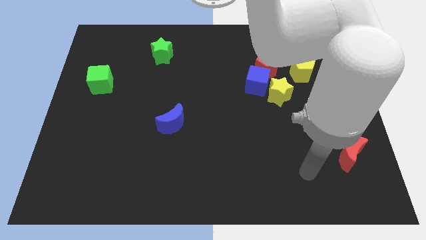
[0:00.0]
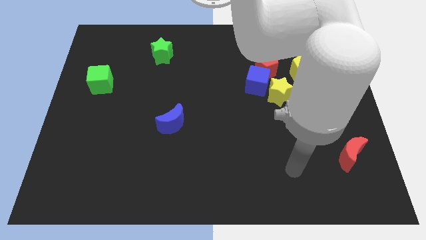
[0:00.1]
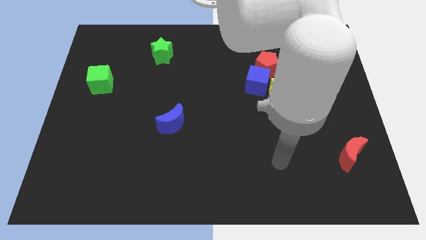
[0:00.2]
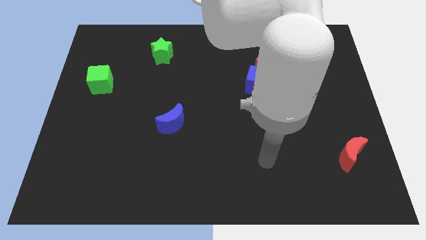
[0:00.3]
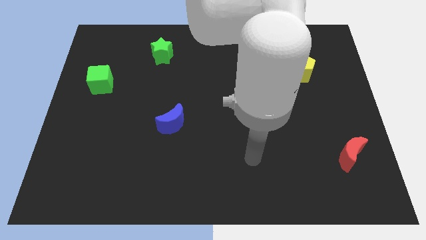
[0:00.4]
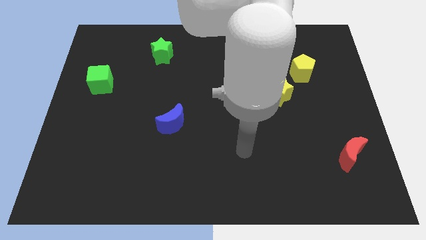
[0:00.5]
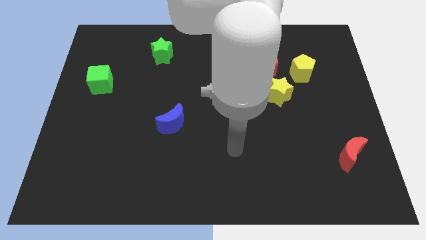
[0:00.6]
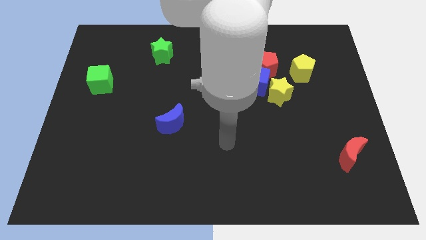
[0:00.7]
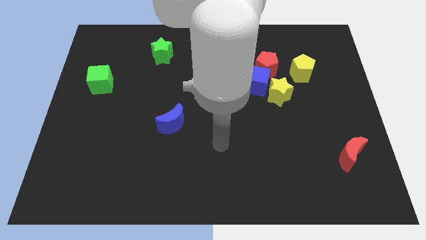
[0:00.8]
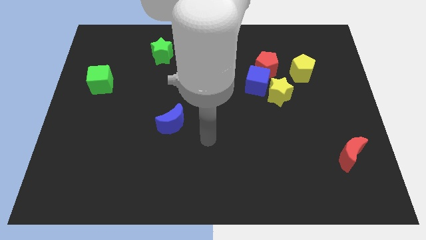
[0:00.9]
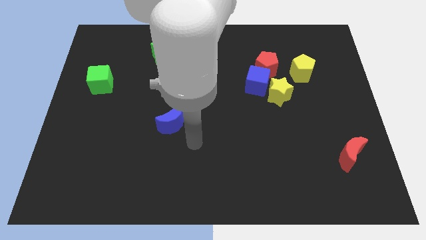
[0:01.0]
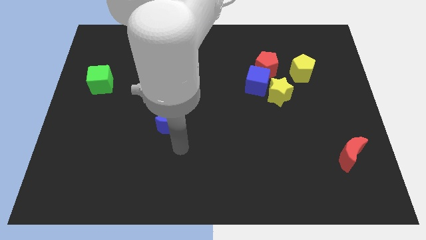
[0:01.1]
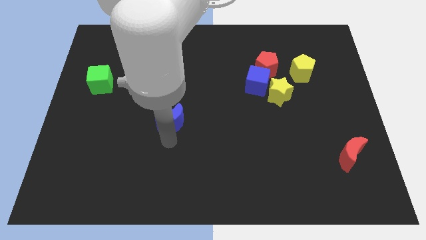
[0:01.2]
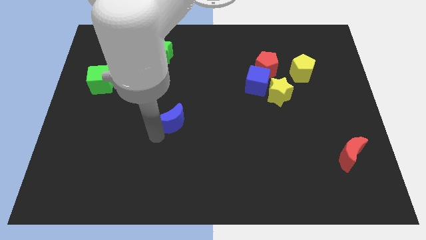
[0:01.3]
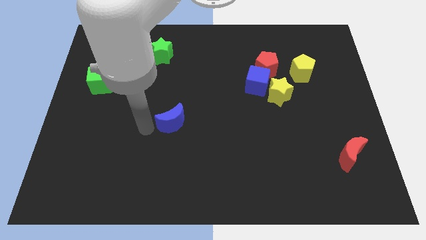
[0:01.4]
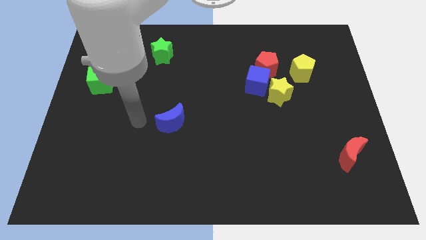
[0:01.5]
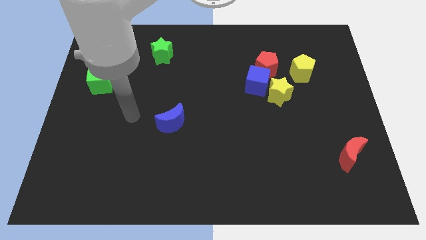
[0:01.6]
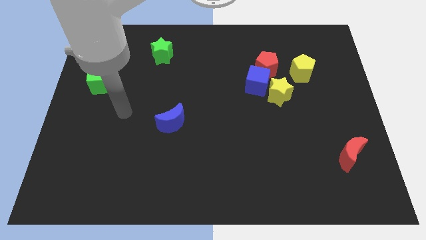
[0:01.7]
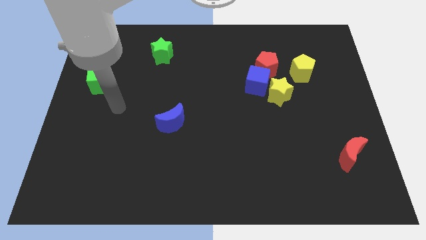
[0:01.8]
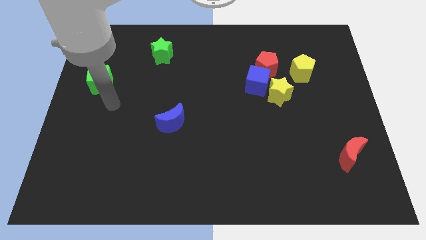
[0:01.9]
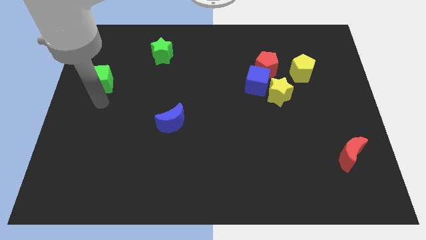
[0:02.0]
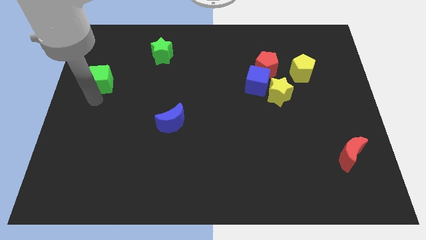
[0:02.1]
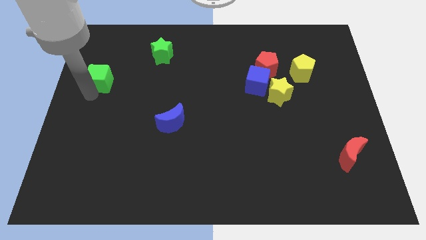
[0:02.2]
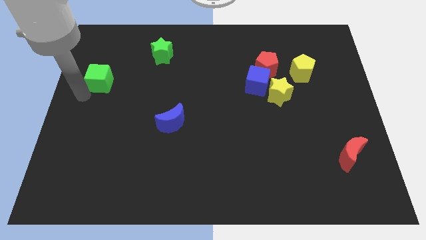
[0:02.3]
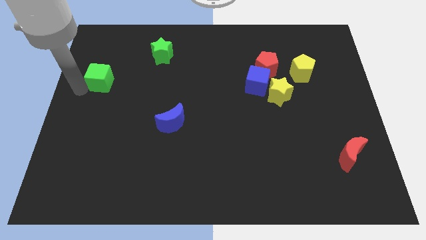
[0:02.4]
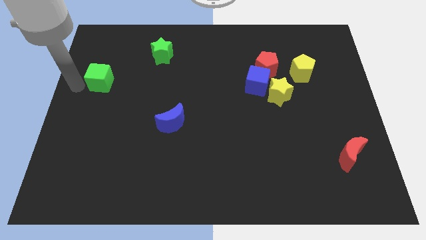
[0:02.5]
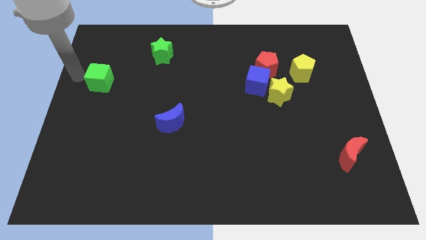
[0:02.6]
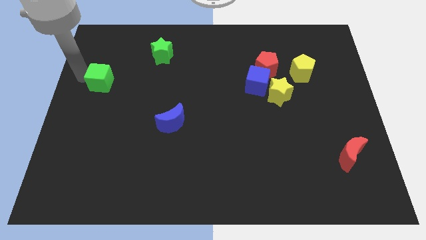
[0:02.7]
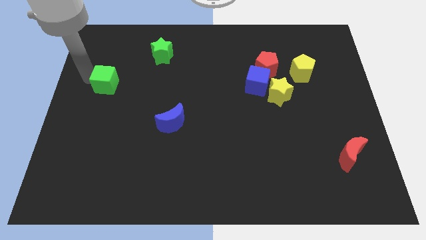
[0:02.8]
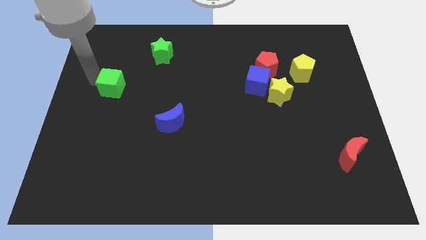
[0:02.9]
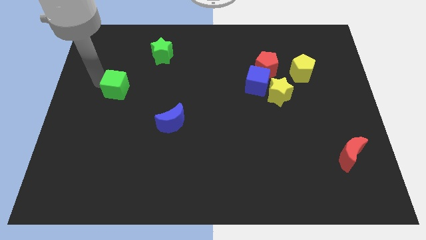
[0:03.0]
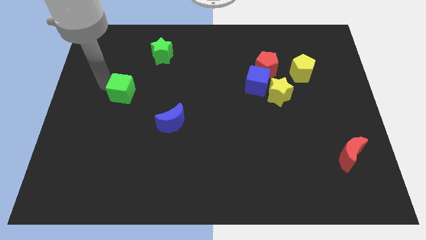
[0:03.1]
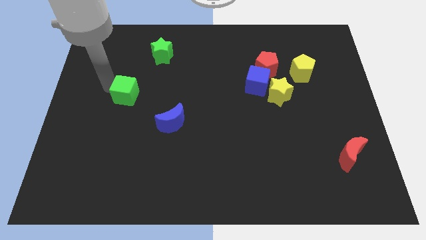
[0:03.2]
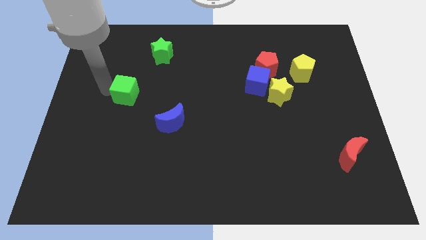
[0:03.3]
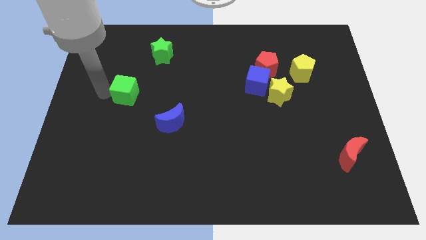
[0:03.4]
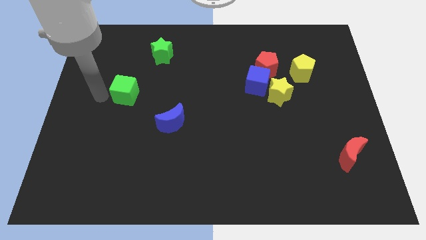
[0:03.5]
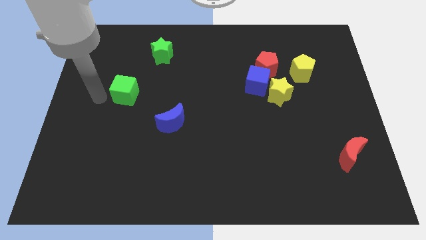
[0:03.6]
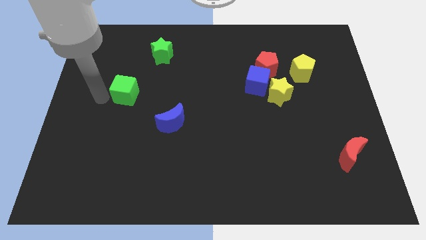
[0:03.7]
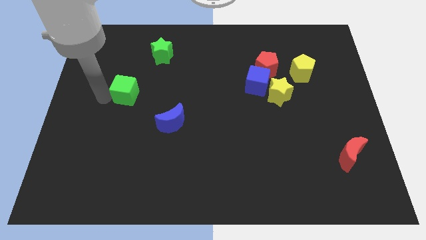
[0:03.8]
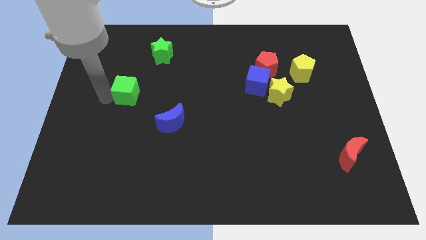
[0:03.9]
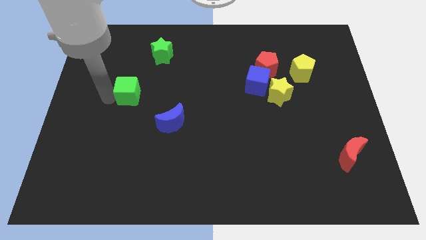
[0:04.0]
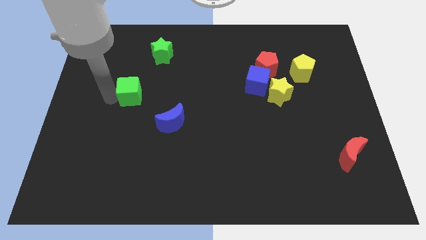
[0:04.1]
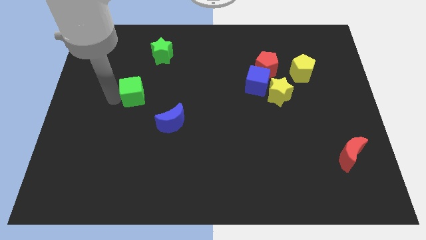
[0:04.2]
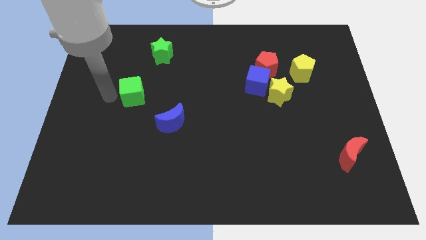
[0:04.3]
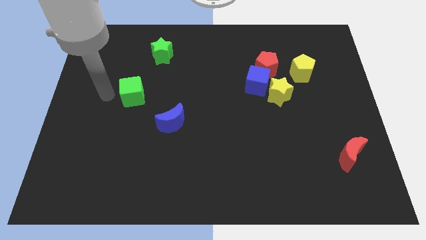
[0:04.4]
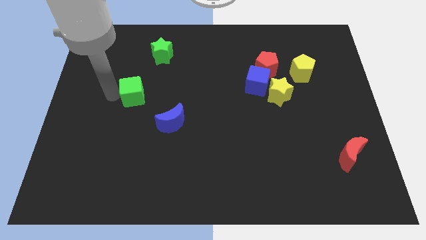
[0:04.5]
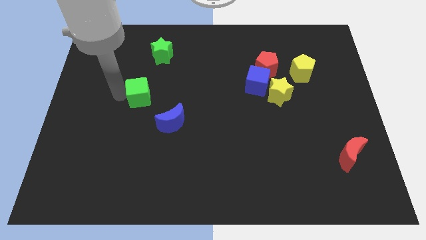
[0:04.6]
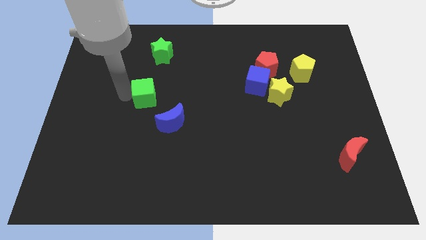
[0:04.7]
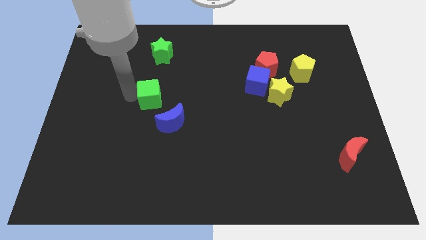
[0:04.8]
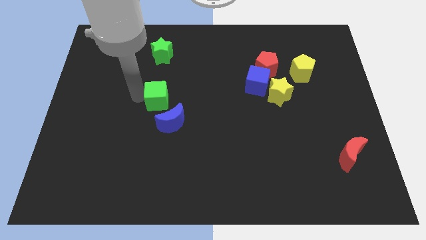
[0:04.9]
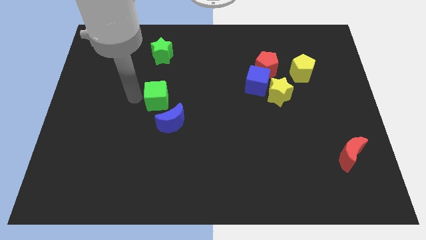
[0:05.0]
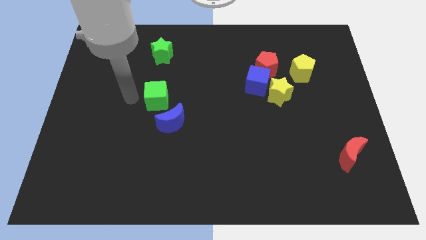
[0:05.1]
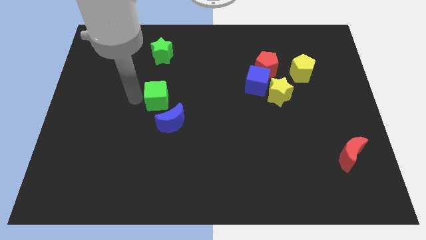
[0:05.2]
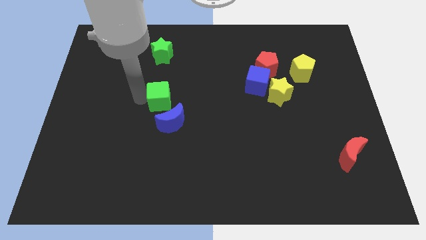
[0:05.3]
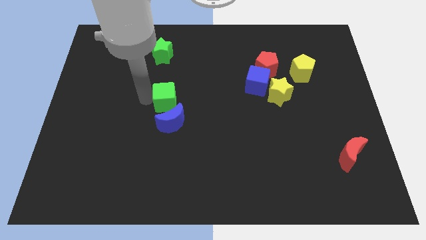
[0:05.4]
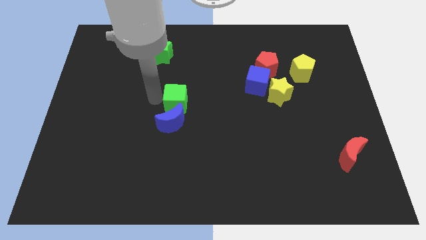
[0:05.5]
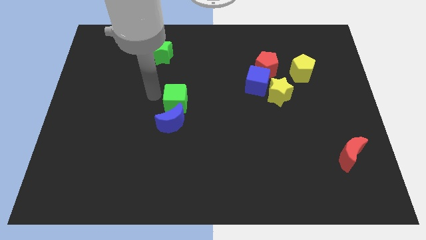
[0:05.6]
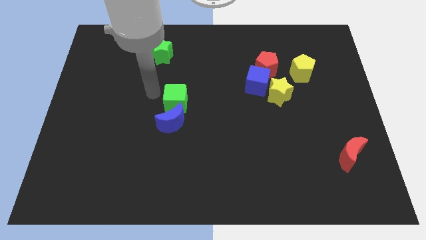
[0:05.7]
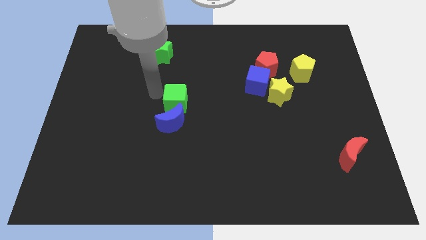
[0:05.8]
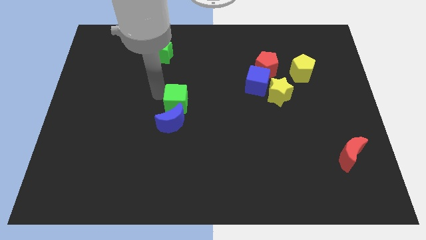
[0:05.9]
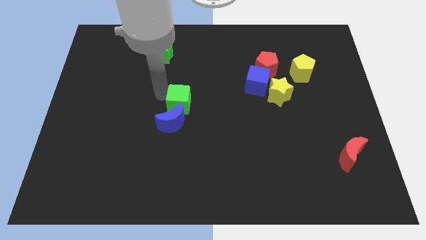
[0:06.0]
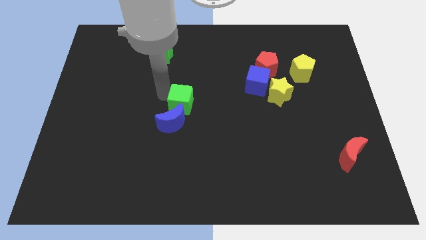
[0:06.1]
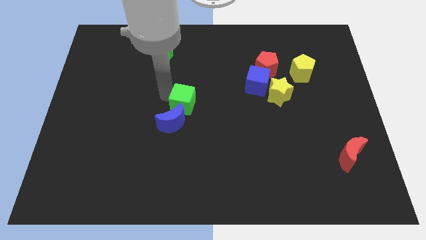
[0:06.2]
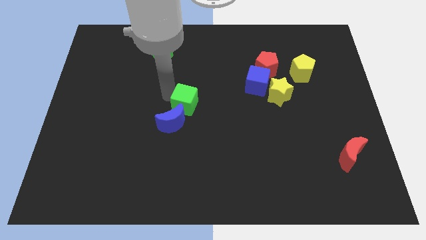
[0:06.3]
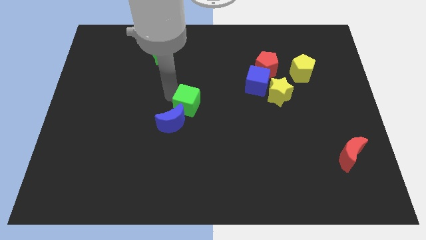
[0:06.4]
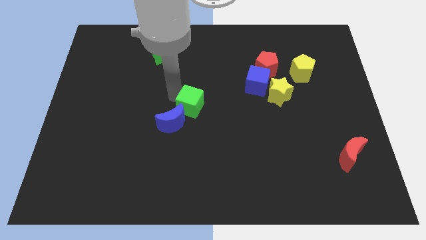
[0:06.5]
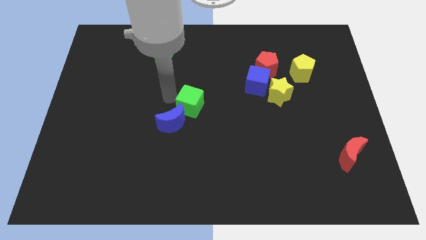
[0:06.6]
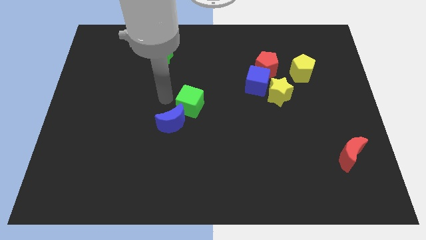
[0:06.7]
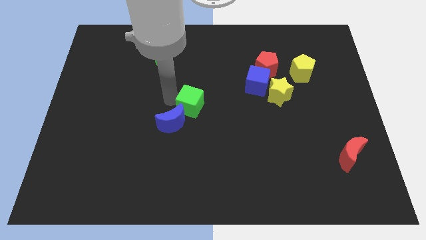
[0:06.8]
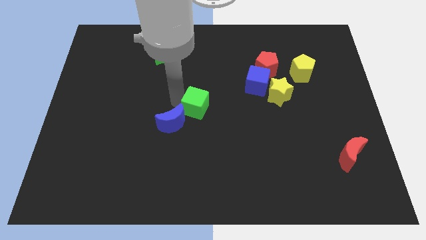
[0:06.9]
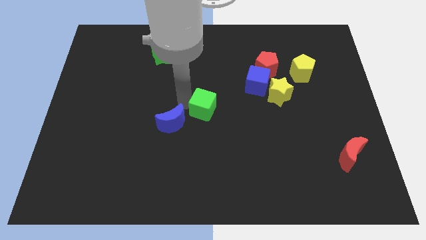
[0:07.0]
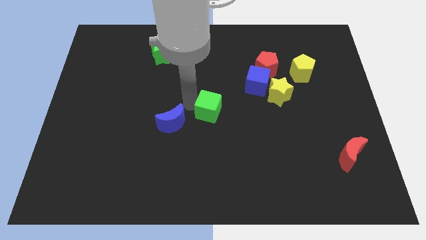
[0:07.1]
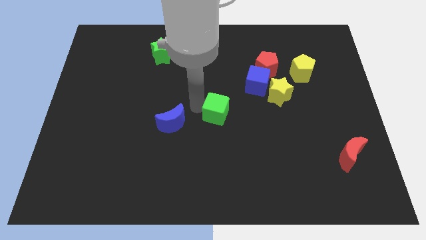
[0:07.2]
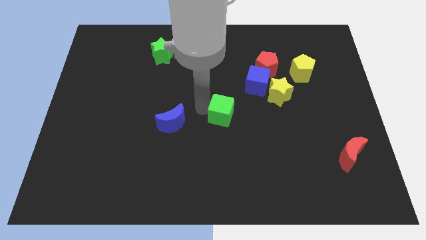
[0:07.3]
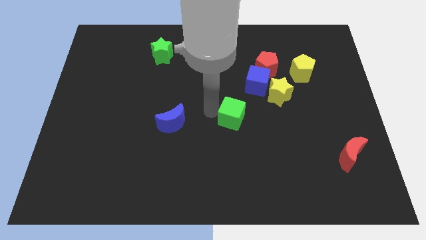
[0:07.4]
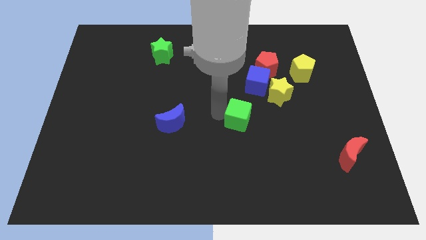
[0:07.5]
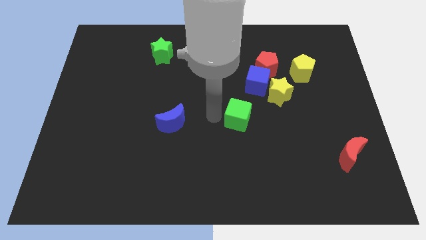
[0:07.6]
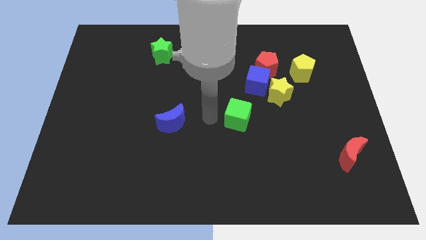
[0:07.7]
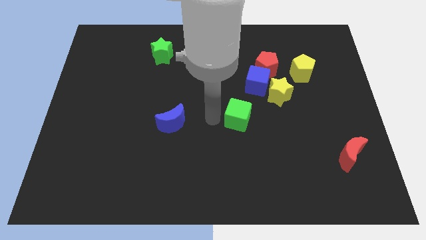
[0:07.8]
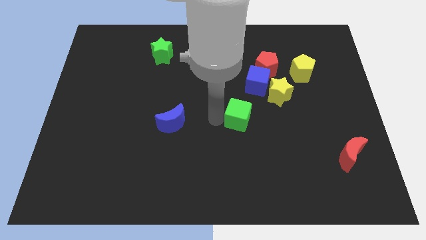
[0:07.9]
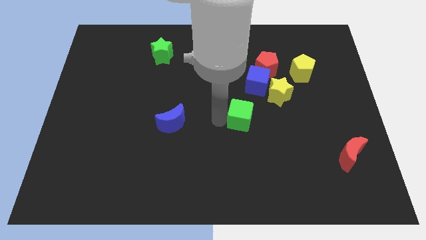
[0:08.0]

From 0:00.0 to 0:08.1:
slide the green cube below the blue cube
